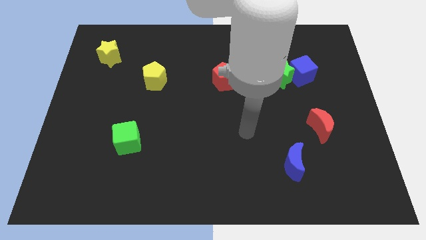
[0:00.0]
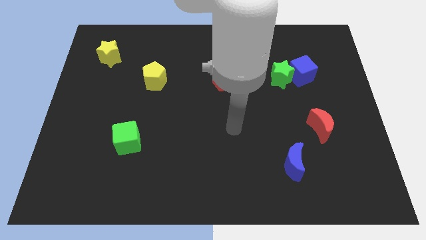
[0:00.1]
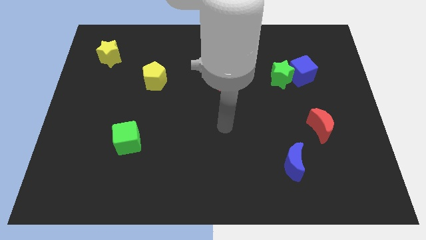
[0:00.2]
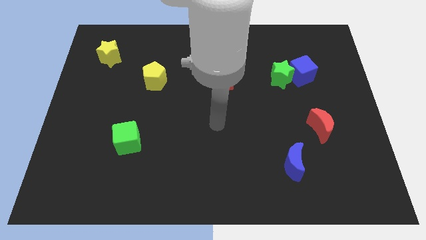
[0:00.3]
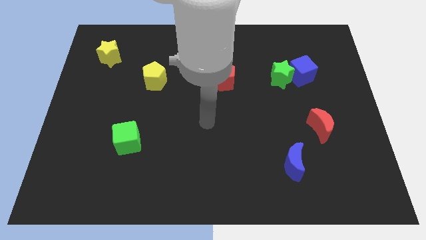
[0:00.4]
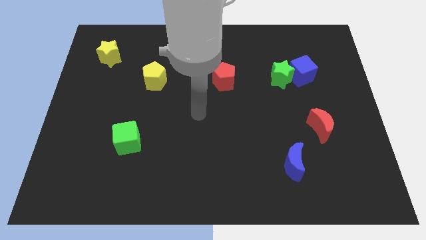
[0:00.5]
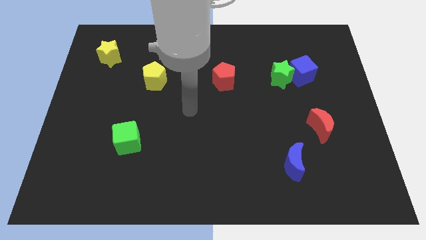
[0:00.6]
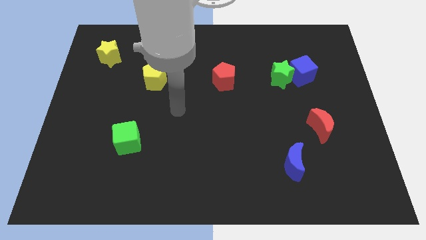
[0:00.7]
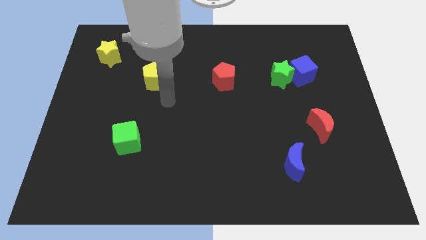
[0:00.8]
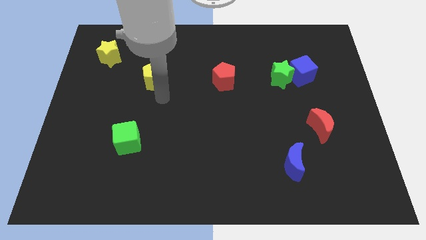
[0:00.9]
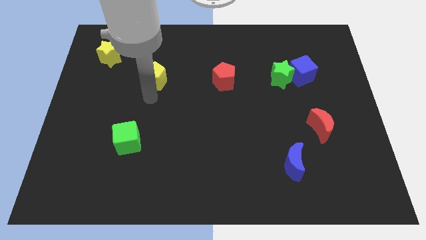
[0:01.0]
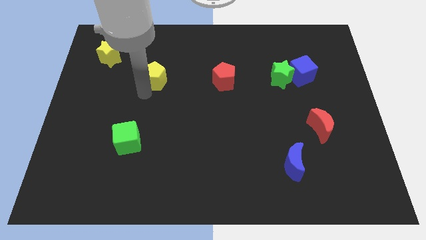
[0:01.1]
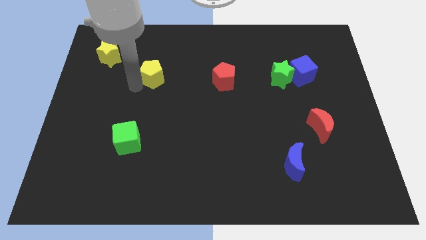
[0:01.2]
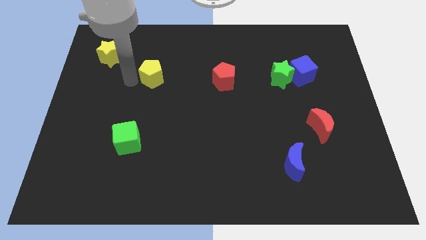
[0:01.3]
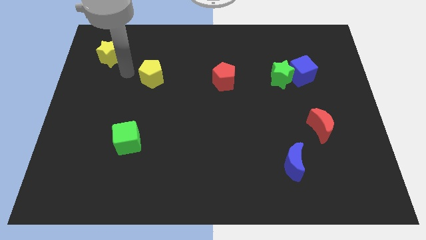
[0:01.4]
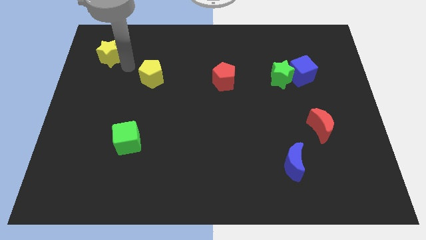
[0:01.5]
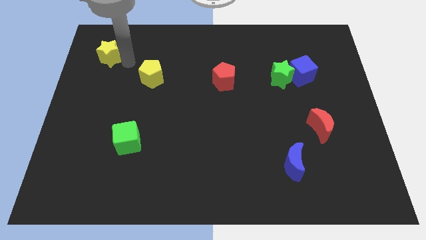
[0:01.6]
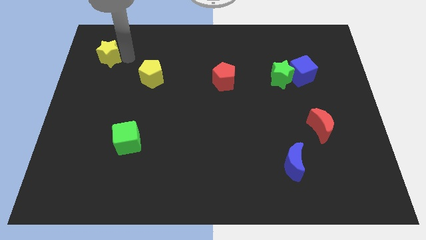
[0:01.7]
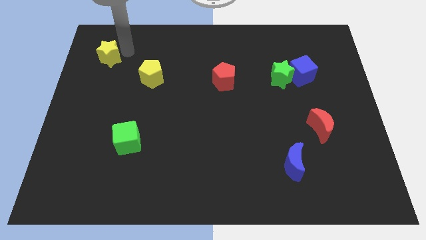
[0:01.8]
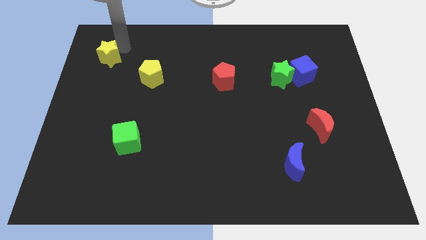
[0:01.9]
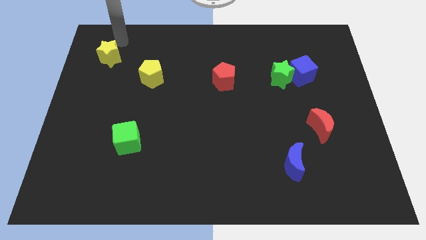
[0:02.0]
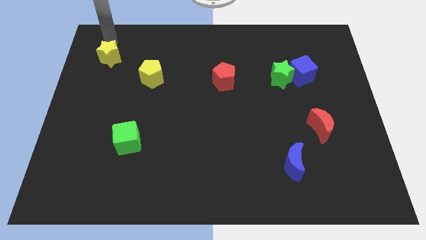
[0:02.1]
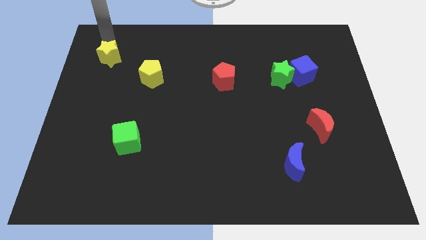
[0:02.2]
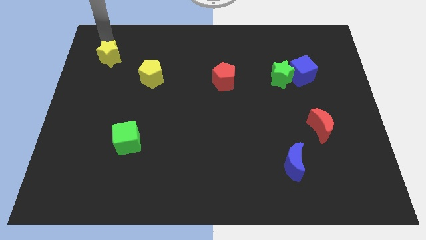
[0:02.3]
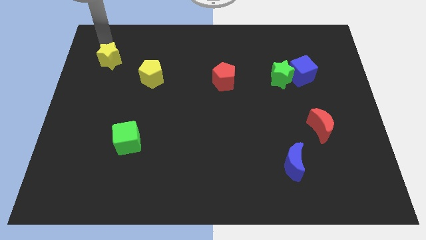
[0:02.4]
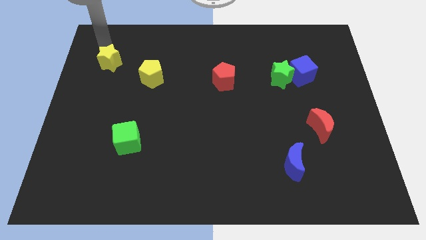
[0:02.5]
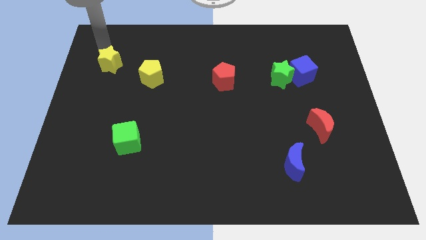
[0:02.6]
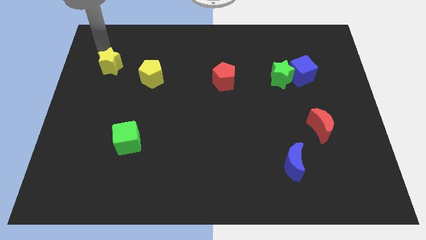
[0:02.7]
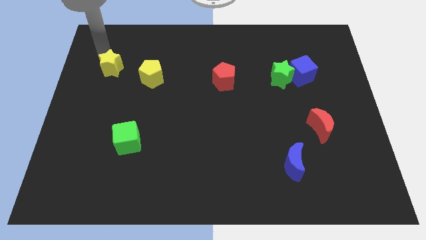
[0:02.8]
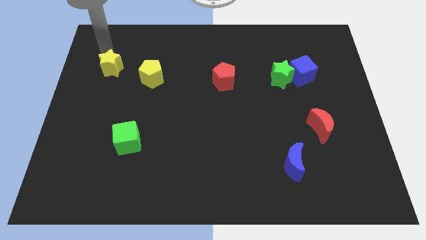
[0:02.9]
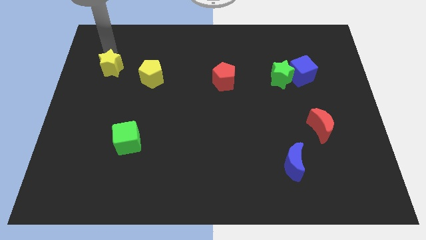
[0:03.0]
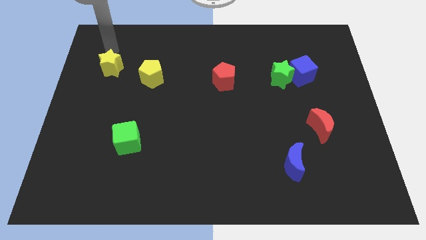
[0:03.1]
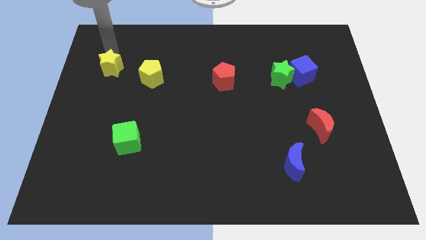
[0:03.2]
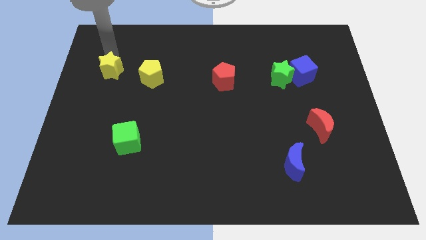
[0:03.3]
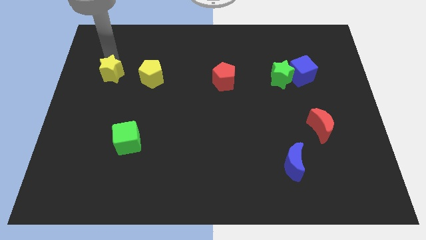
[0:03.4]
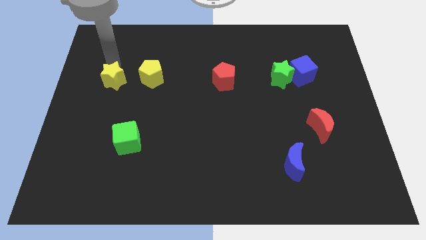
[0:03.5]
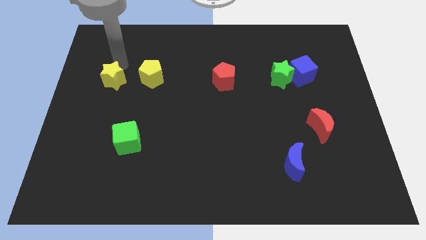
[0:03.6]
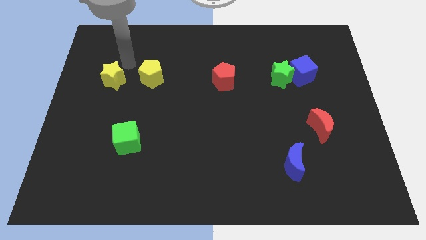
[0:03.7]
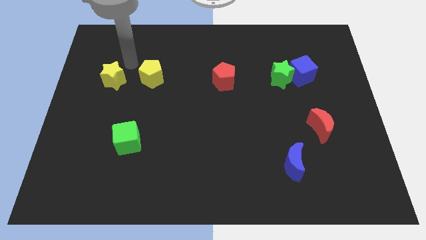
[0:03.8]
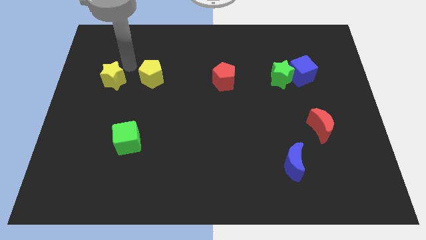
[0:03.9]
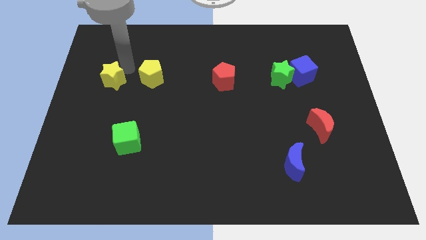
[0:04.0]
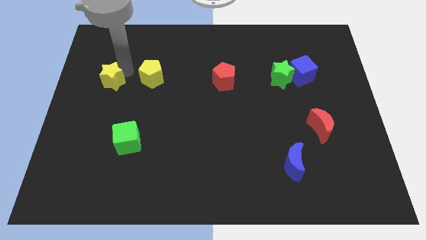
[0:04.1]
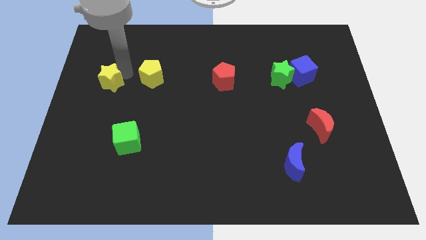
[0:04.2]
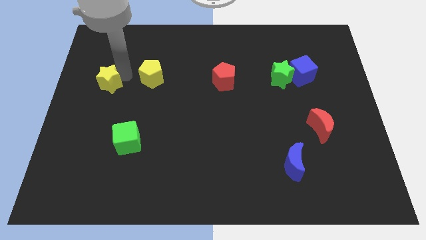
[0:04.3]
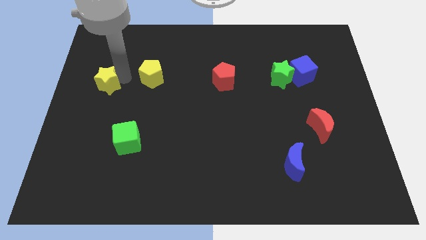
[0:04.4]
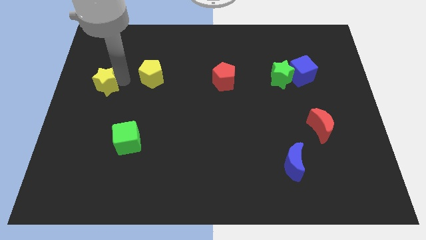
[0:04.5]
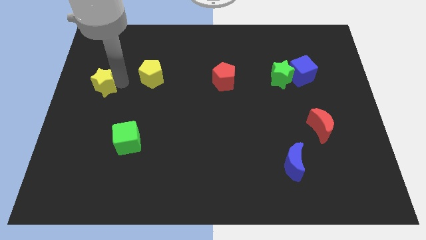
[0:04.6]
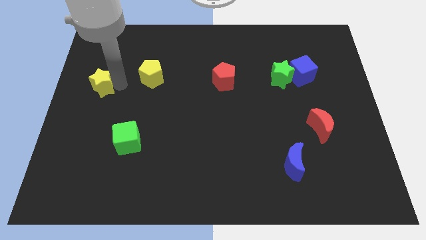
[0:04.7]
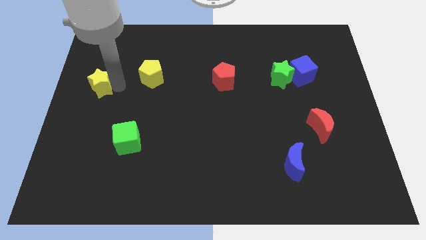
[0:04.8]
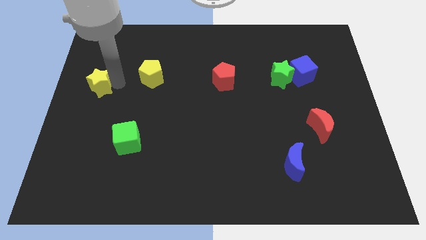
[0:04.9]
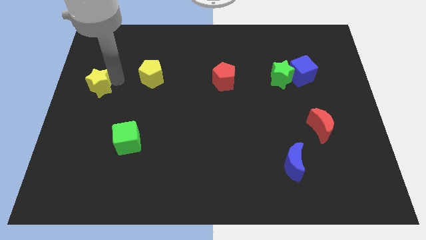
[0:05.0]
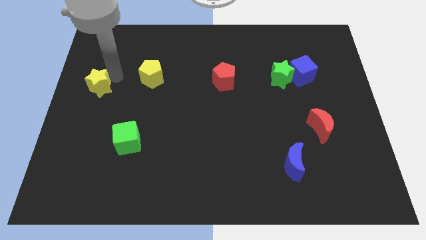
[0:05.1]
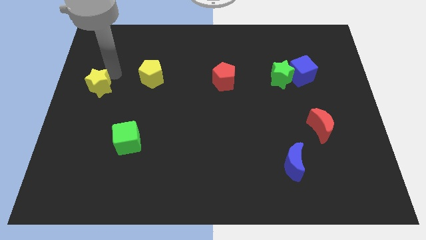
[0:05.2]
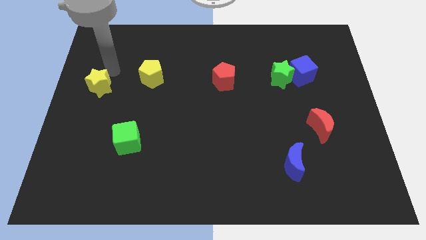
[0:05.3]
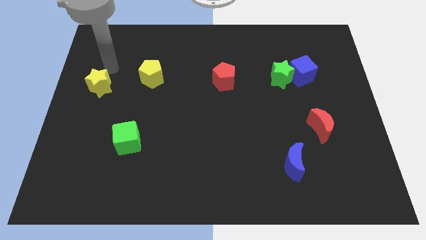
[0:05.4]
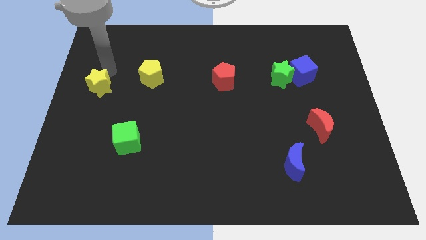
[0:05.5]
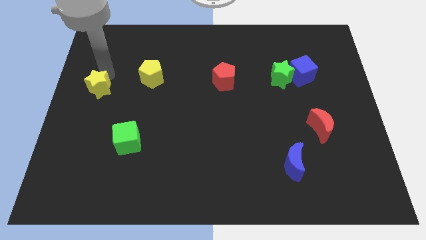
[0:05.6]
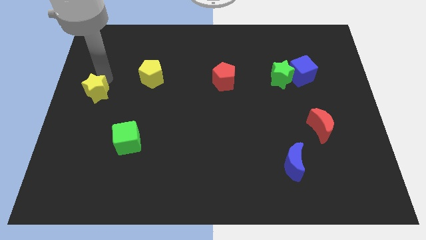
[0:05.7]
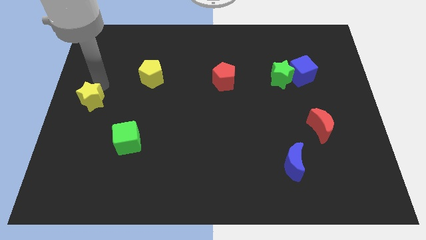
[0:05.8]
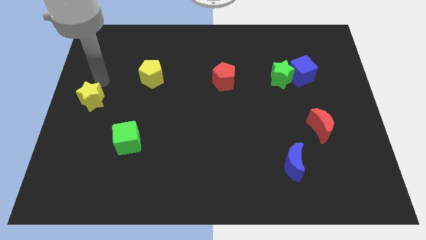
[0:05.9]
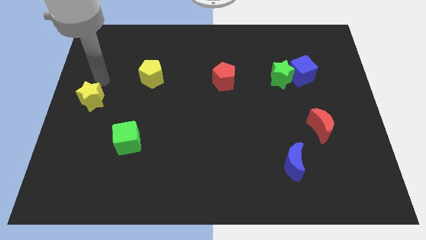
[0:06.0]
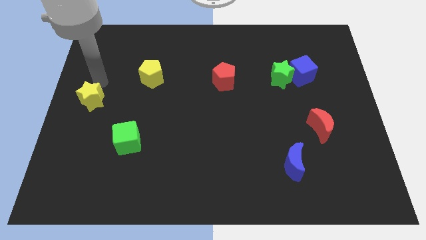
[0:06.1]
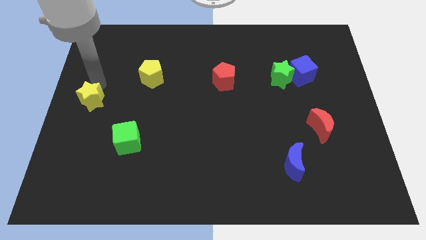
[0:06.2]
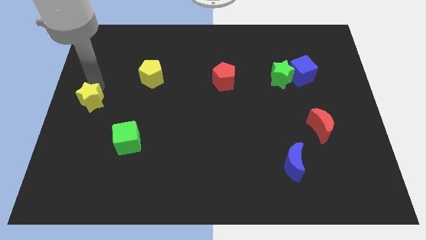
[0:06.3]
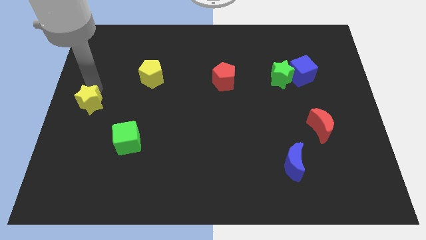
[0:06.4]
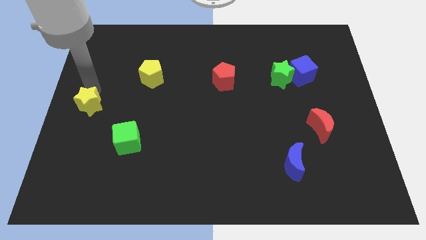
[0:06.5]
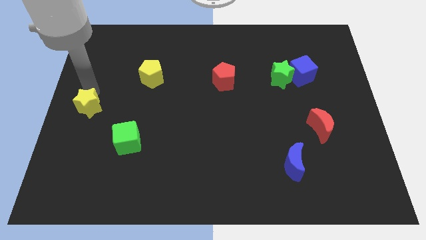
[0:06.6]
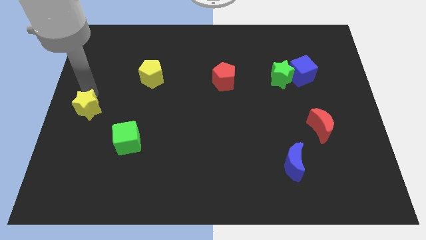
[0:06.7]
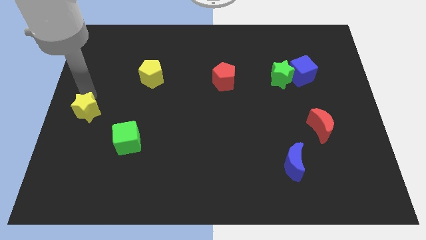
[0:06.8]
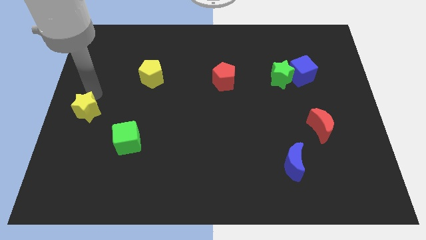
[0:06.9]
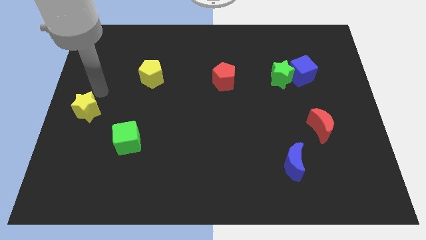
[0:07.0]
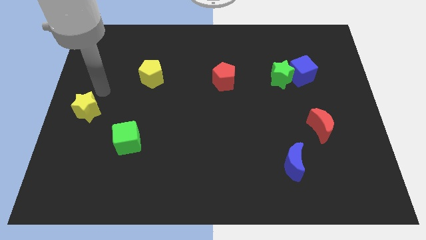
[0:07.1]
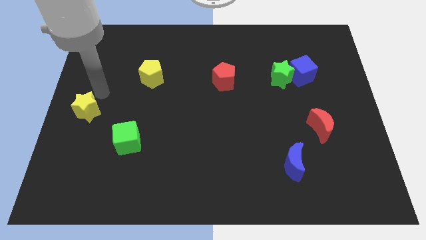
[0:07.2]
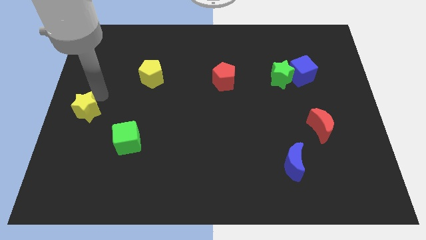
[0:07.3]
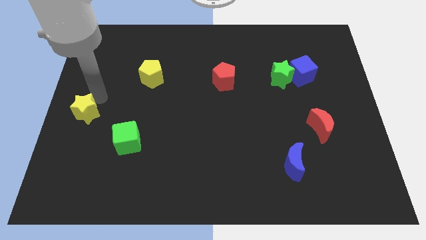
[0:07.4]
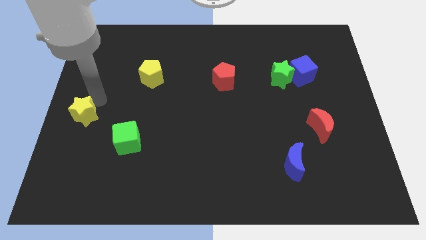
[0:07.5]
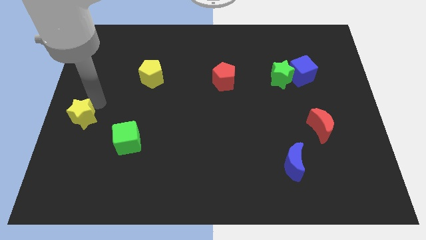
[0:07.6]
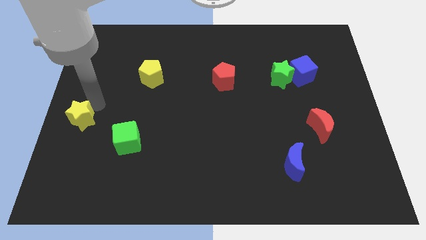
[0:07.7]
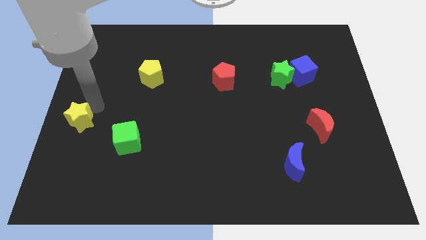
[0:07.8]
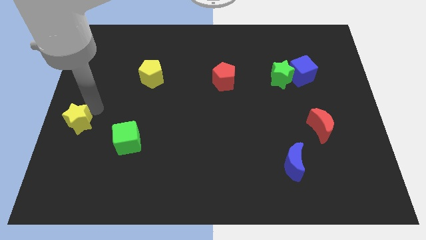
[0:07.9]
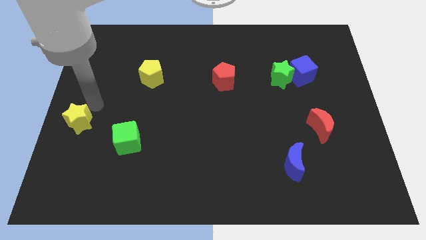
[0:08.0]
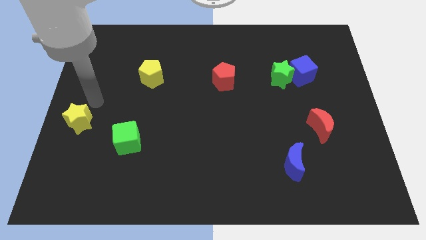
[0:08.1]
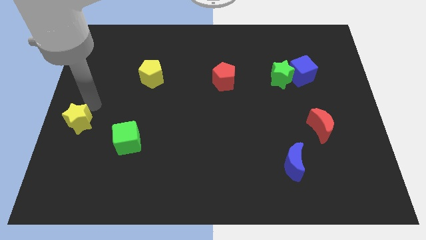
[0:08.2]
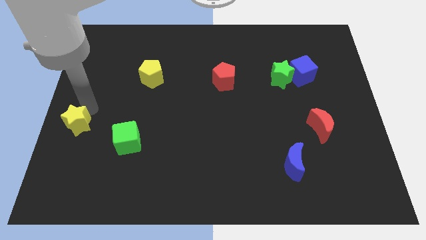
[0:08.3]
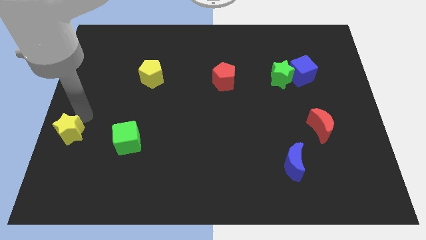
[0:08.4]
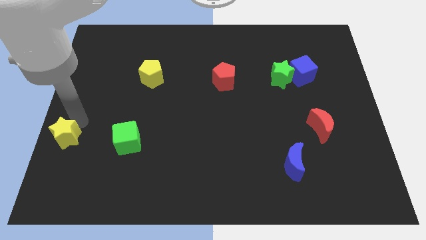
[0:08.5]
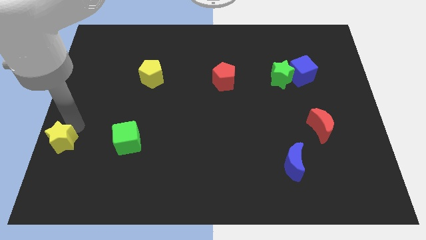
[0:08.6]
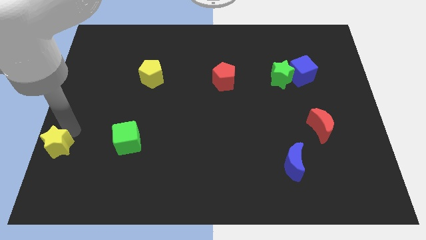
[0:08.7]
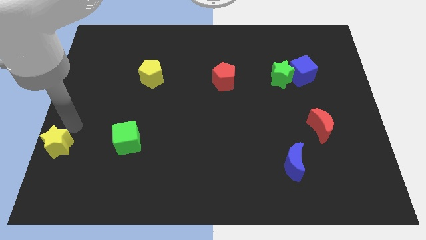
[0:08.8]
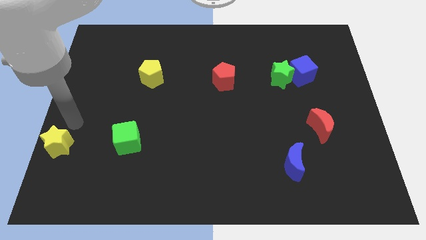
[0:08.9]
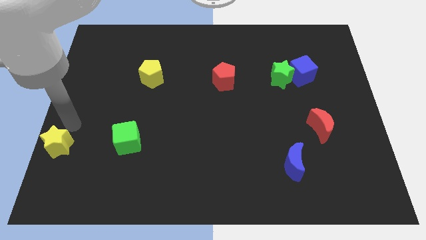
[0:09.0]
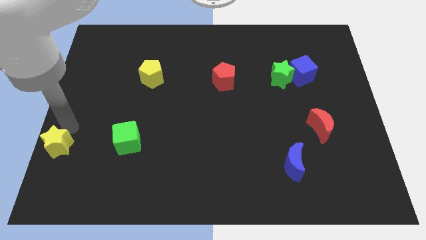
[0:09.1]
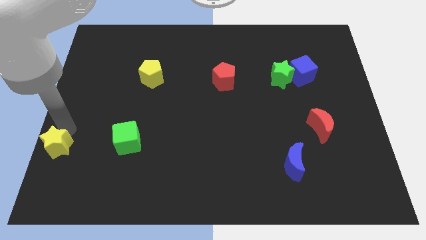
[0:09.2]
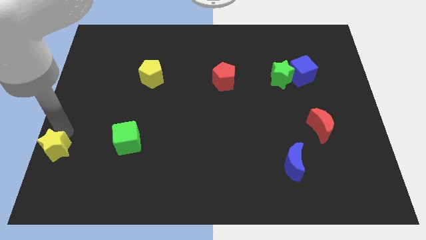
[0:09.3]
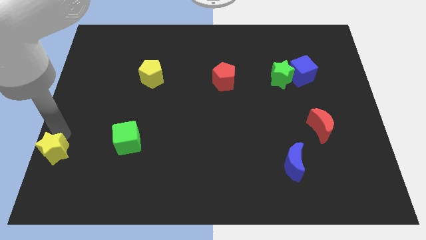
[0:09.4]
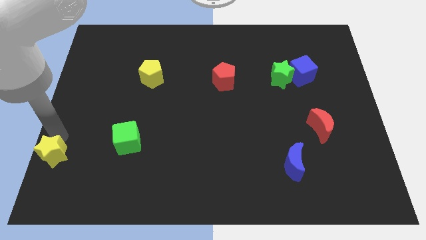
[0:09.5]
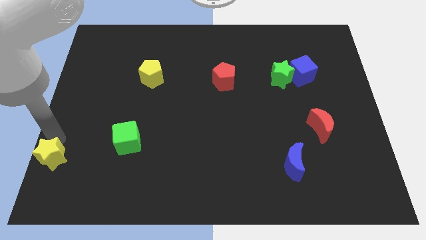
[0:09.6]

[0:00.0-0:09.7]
put the yellow star to the lower left corner
